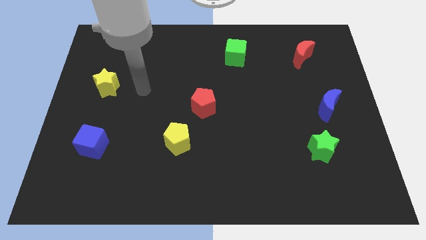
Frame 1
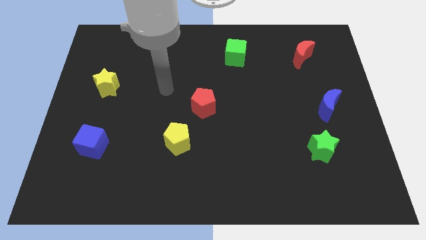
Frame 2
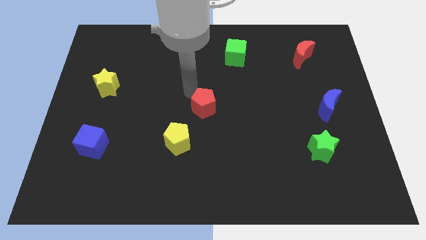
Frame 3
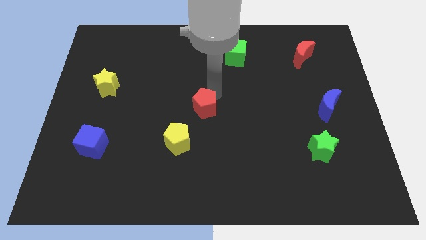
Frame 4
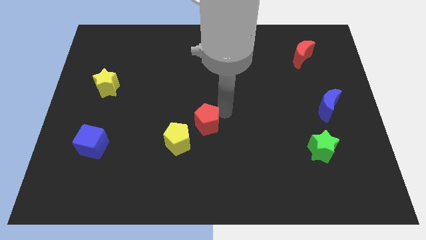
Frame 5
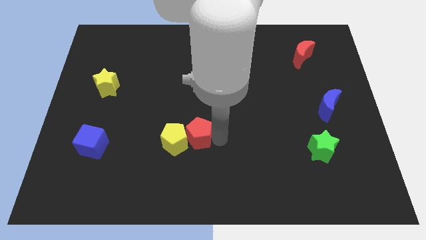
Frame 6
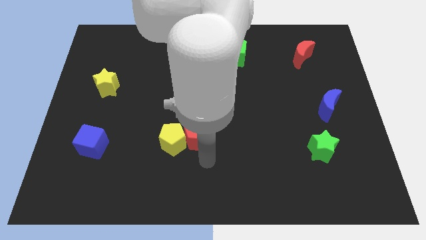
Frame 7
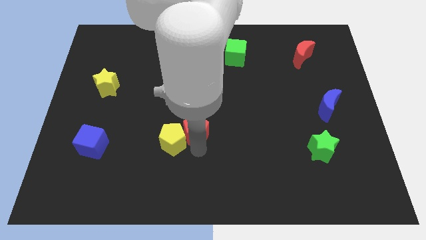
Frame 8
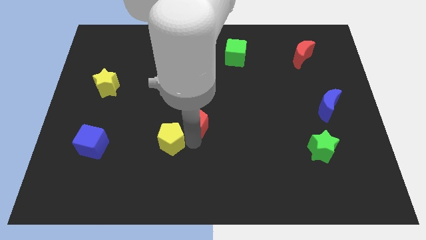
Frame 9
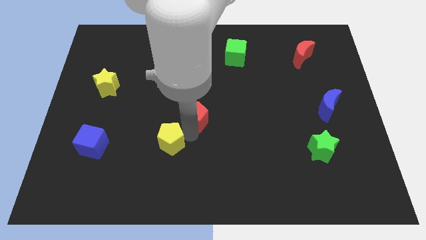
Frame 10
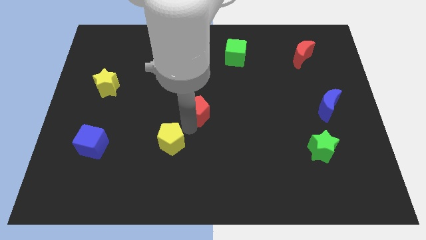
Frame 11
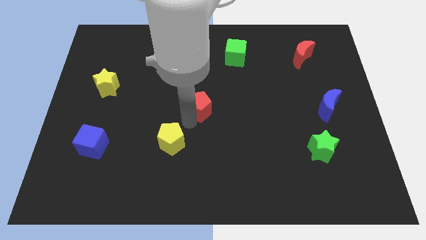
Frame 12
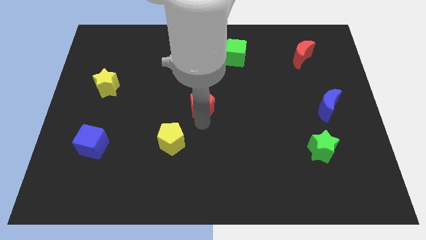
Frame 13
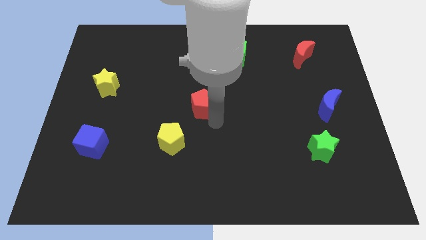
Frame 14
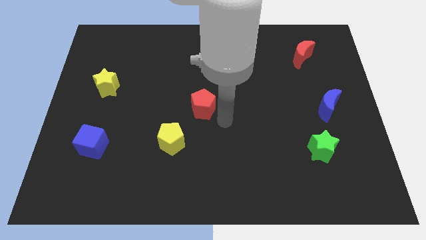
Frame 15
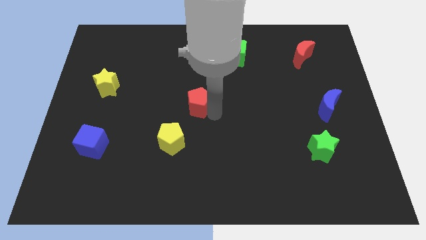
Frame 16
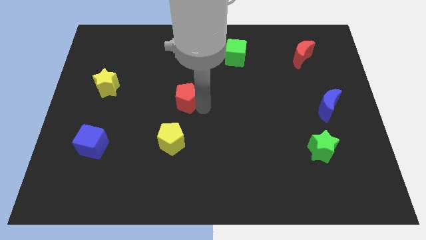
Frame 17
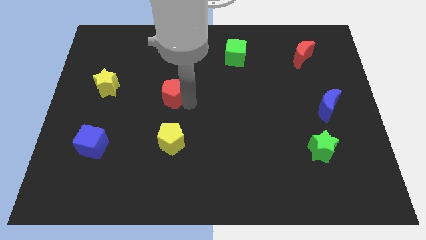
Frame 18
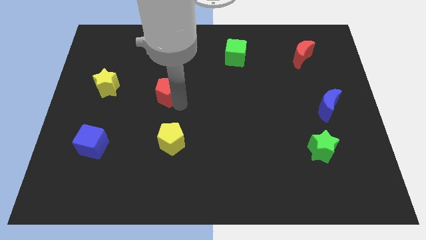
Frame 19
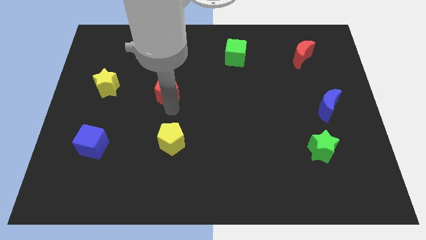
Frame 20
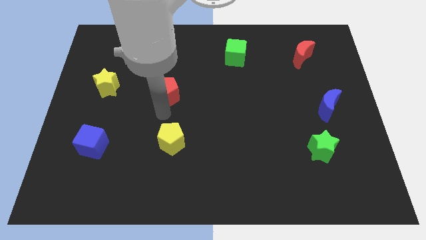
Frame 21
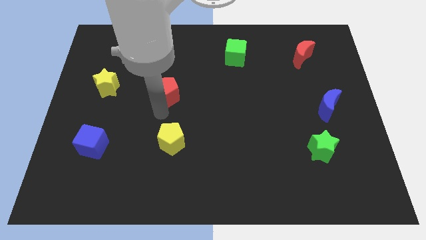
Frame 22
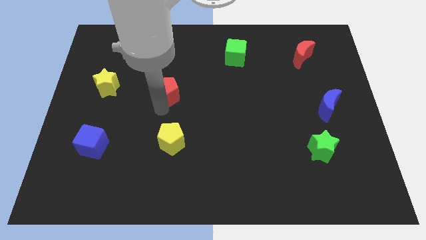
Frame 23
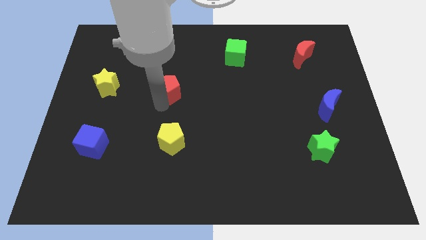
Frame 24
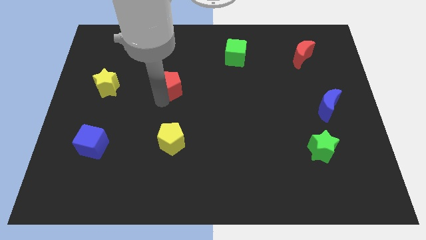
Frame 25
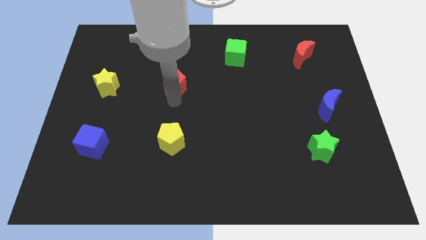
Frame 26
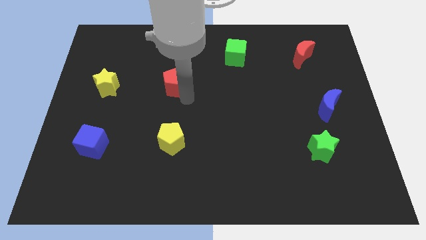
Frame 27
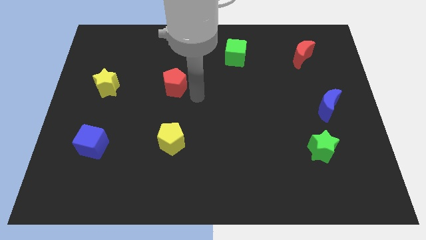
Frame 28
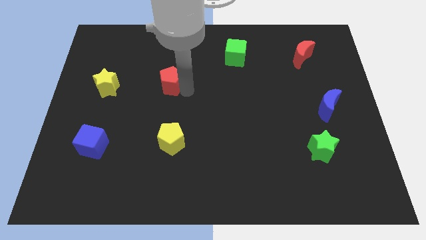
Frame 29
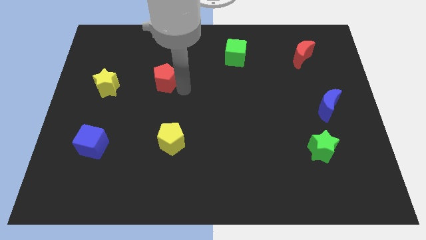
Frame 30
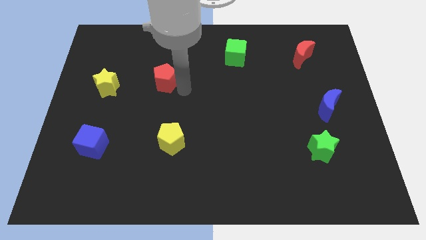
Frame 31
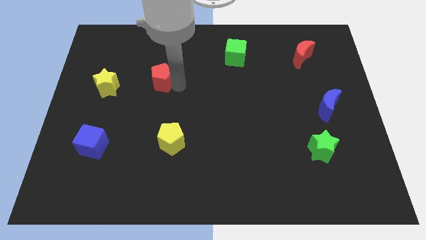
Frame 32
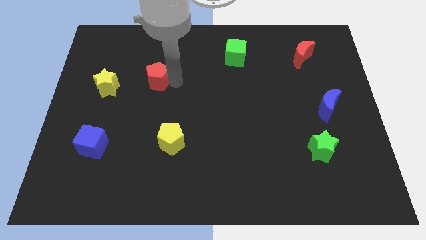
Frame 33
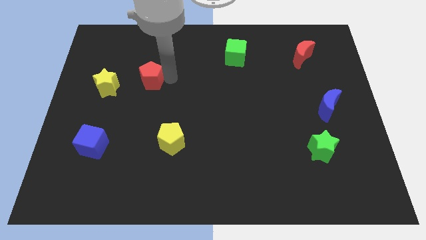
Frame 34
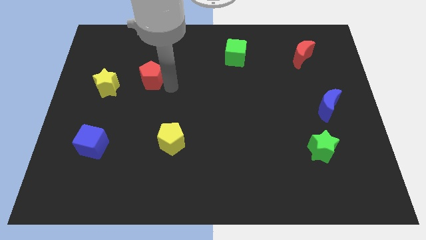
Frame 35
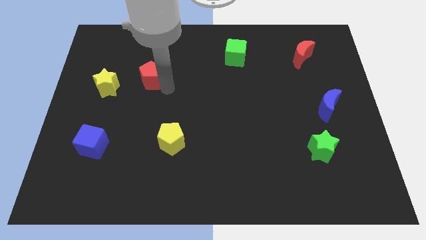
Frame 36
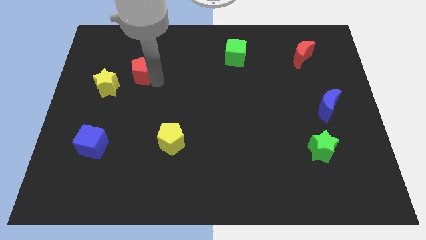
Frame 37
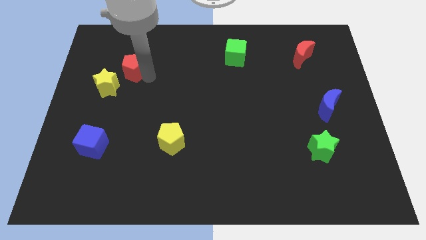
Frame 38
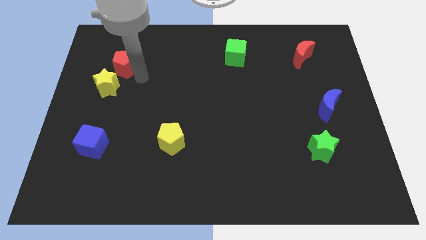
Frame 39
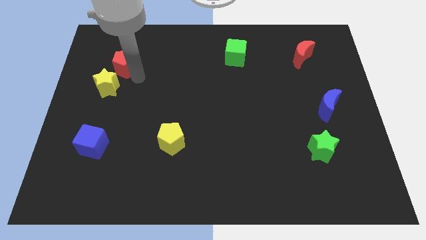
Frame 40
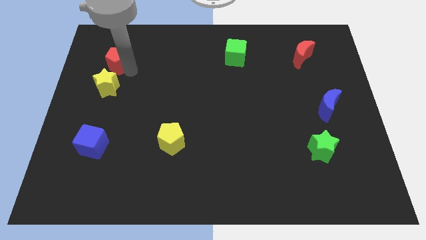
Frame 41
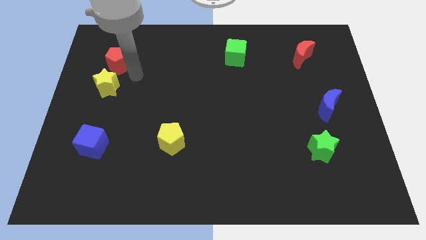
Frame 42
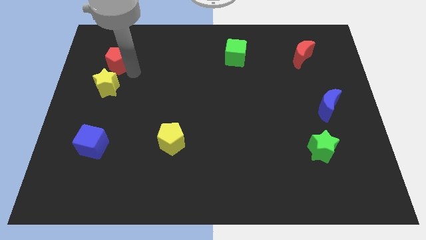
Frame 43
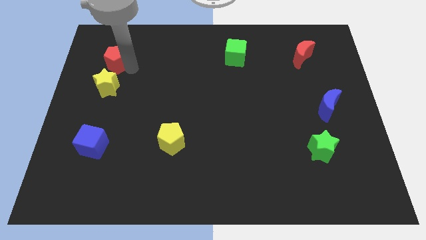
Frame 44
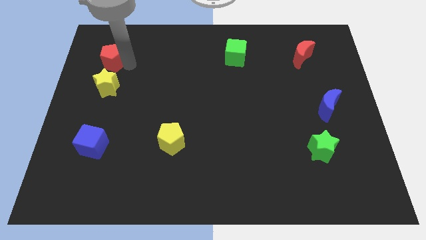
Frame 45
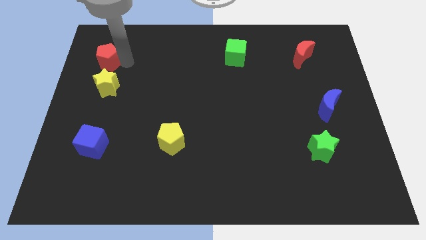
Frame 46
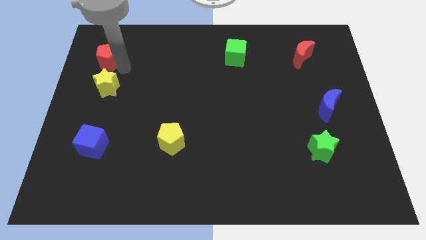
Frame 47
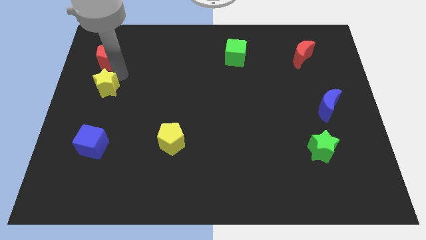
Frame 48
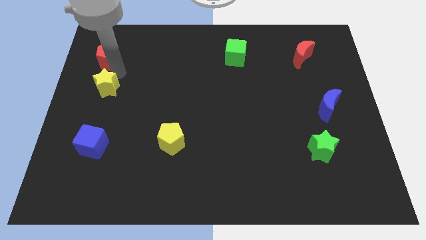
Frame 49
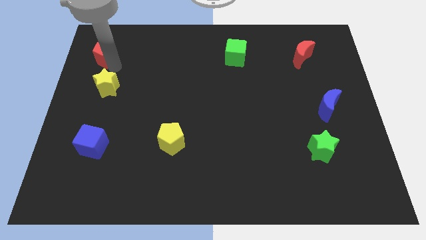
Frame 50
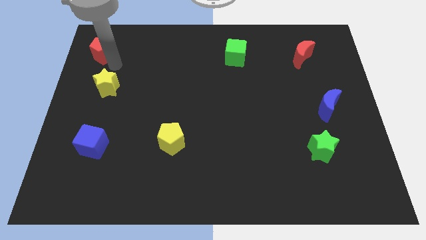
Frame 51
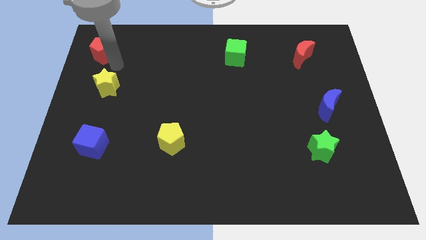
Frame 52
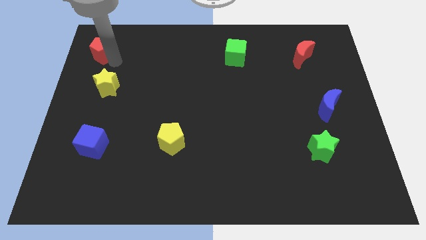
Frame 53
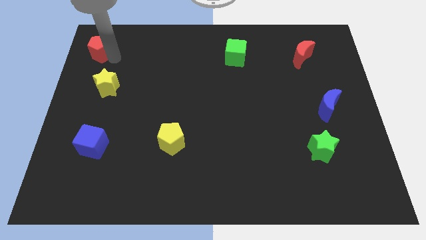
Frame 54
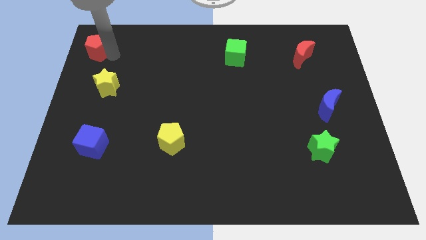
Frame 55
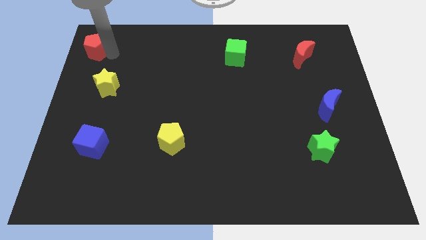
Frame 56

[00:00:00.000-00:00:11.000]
put the red pentagon to the top left corner

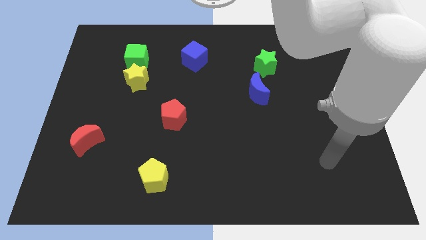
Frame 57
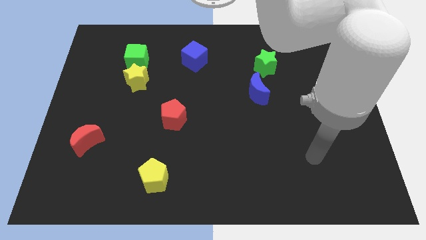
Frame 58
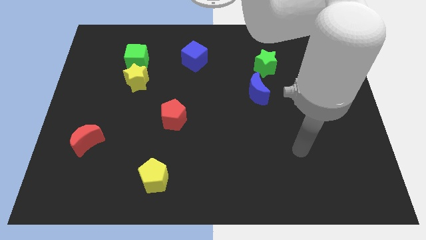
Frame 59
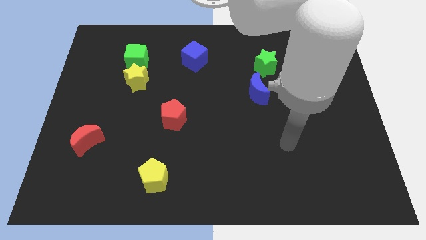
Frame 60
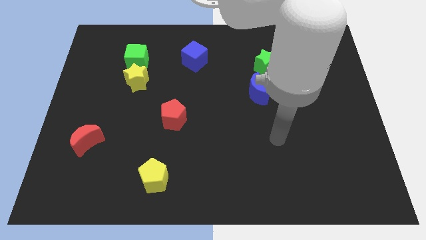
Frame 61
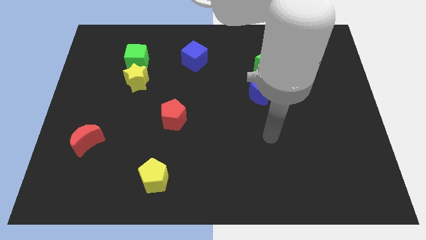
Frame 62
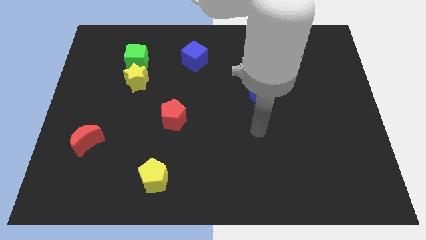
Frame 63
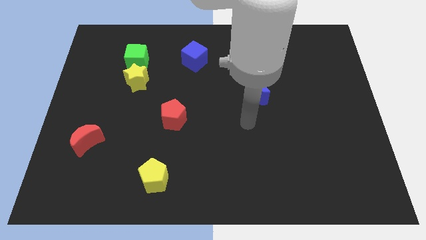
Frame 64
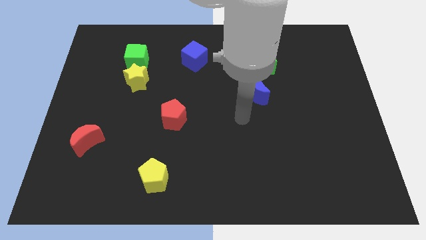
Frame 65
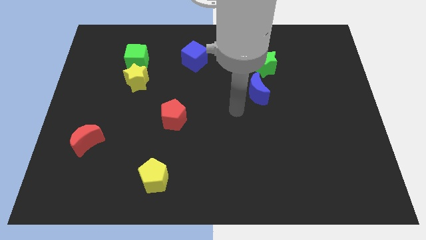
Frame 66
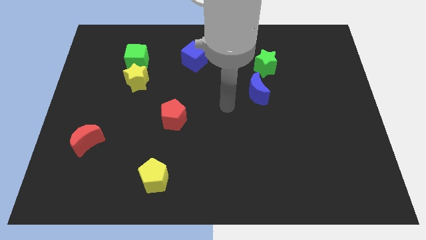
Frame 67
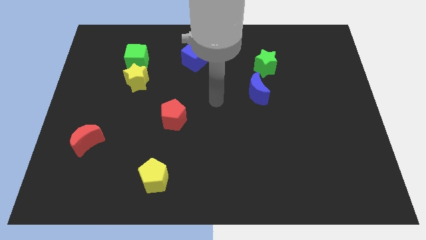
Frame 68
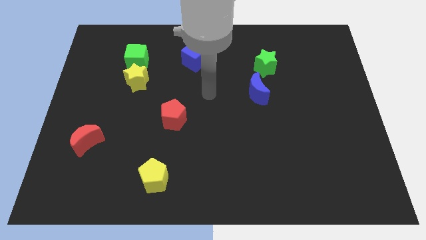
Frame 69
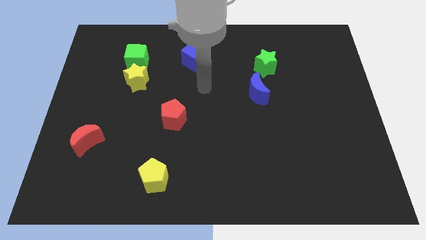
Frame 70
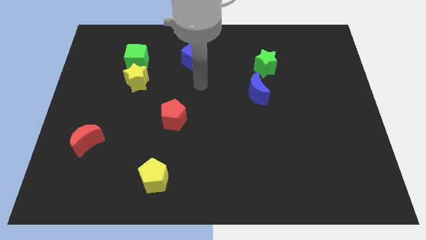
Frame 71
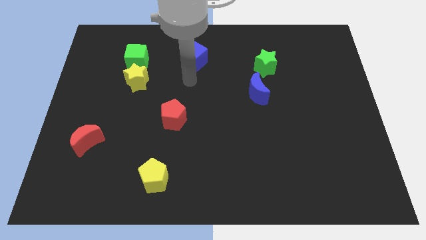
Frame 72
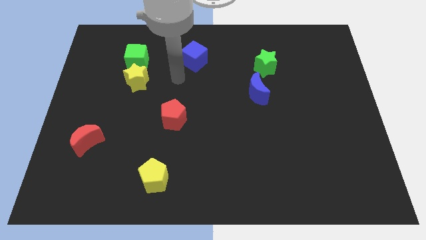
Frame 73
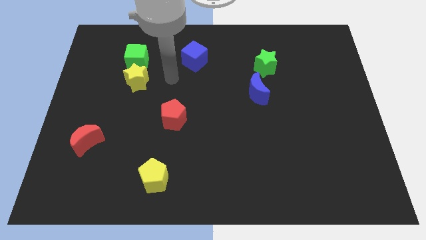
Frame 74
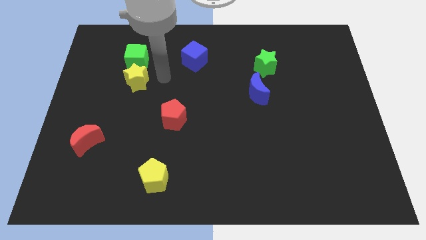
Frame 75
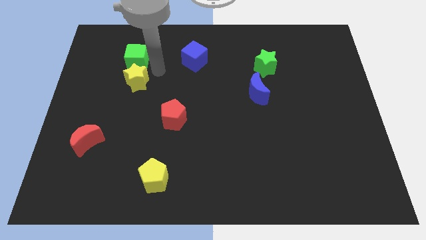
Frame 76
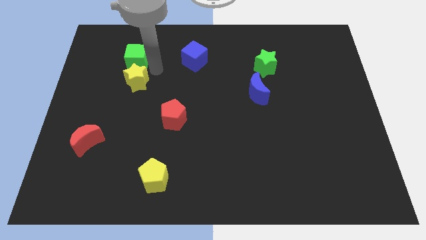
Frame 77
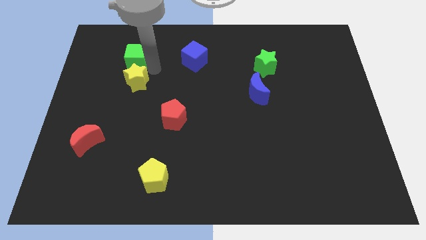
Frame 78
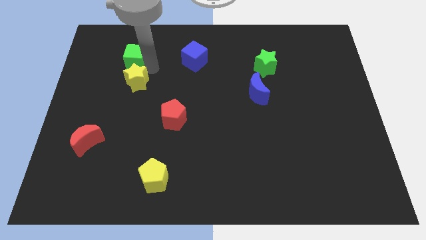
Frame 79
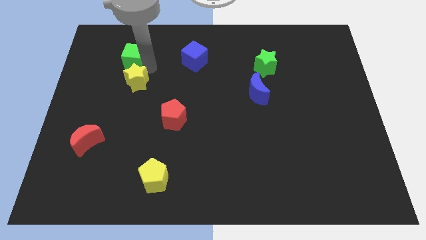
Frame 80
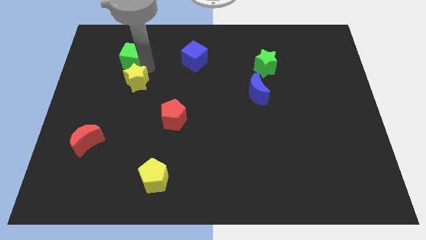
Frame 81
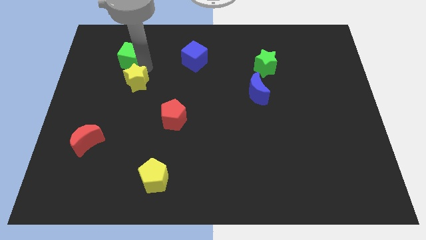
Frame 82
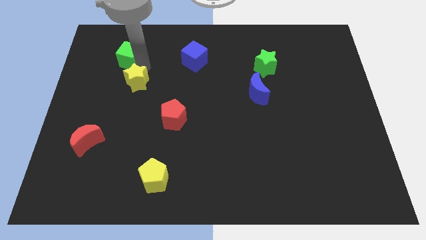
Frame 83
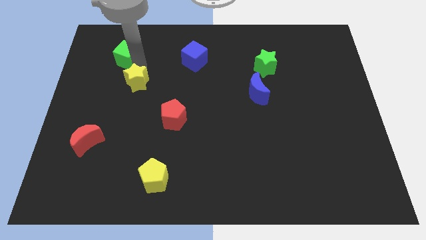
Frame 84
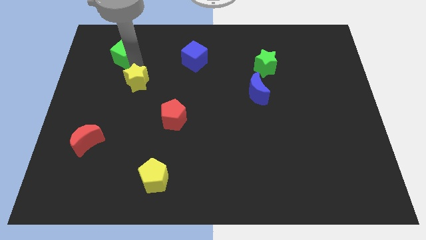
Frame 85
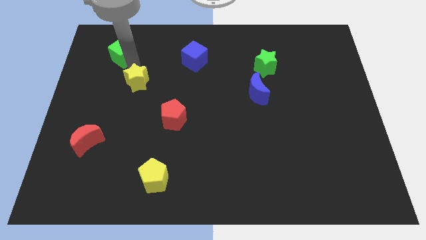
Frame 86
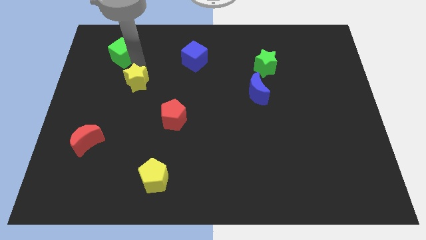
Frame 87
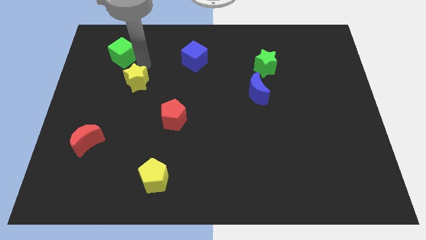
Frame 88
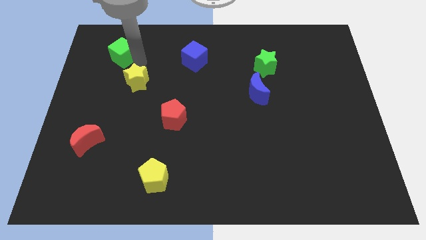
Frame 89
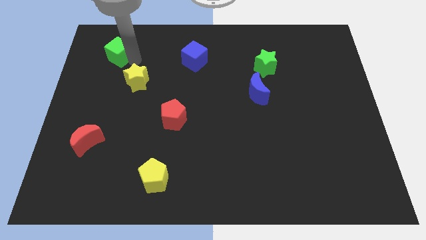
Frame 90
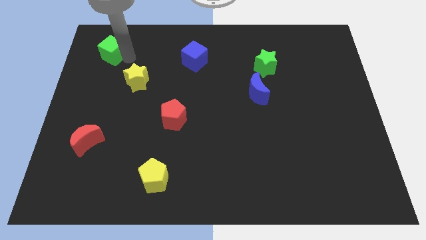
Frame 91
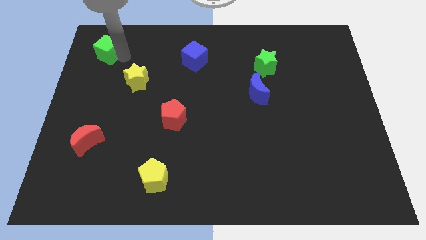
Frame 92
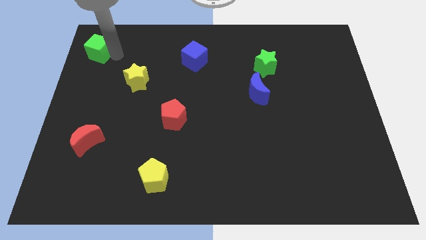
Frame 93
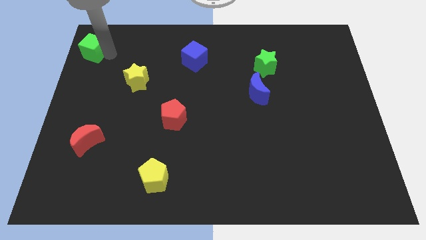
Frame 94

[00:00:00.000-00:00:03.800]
put the green cube to the top left
